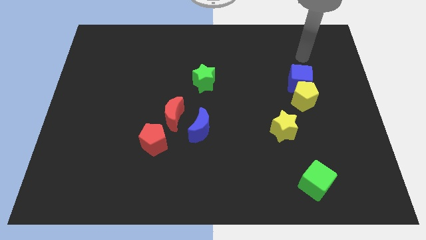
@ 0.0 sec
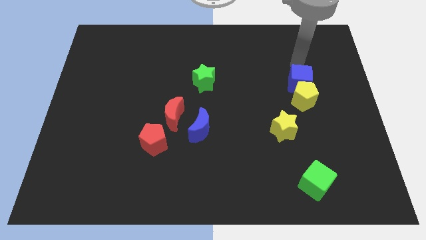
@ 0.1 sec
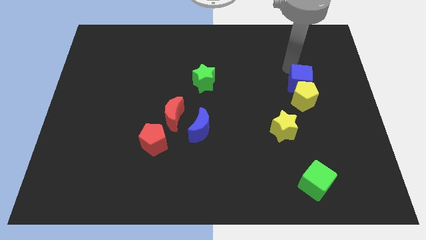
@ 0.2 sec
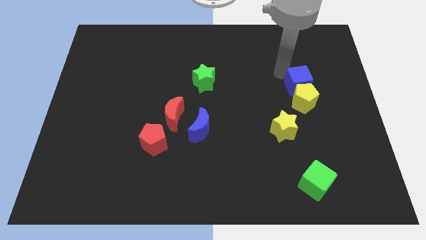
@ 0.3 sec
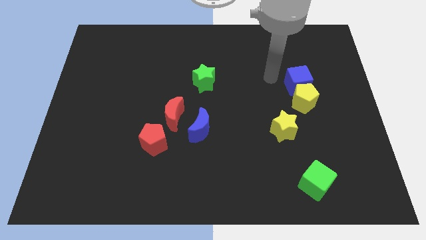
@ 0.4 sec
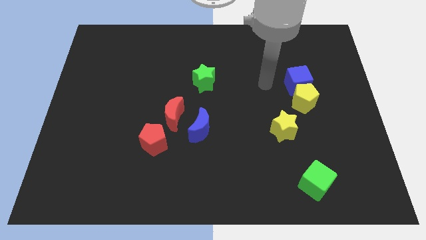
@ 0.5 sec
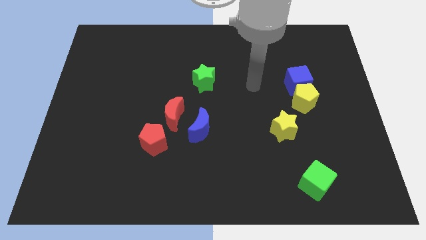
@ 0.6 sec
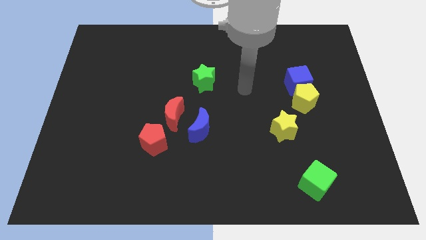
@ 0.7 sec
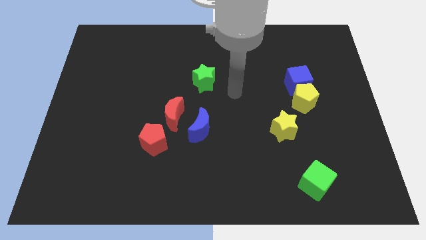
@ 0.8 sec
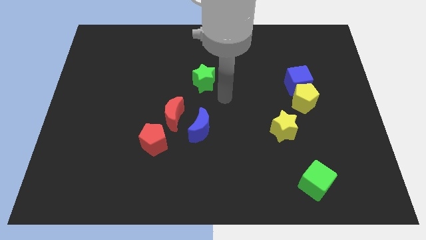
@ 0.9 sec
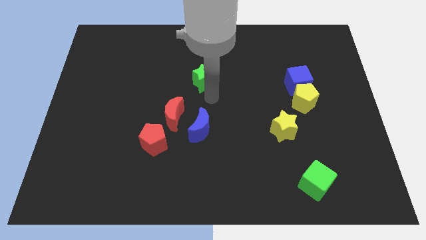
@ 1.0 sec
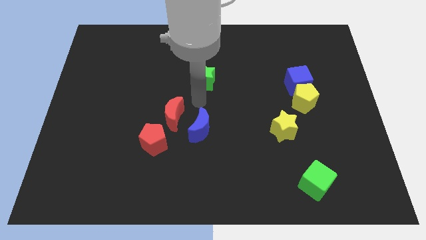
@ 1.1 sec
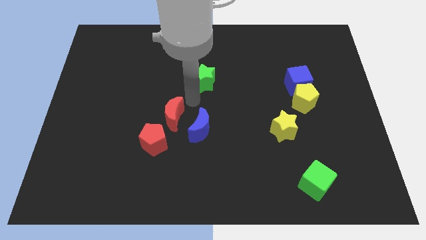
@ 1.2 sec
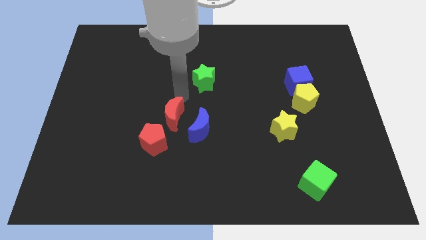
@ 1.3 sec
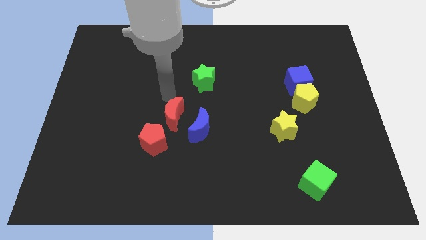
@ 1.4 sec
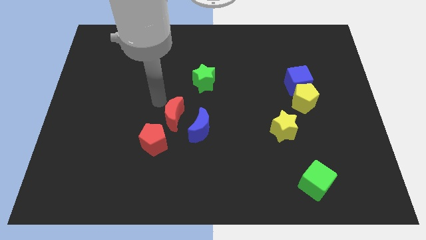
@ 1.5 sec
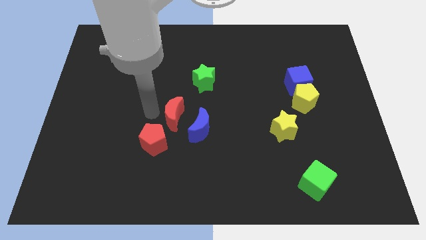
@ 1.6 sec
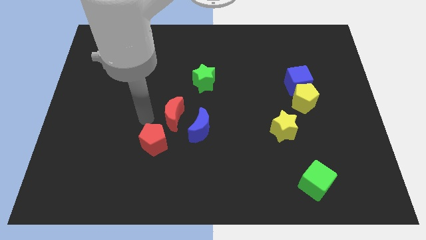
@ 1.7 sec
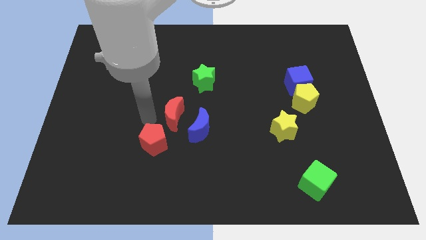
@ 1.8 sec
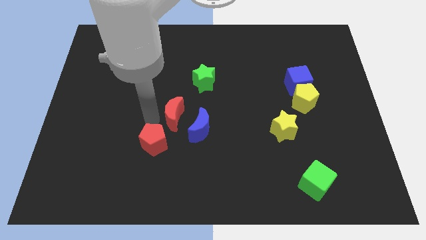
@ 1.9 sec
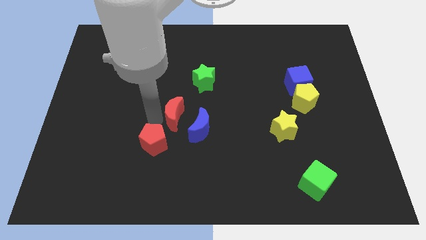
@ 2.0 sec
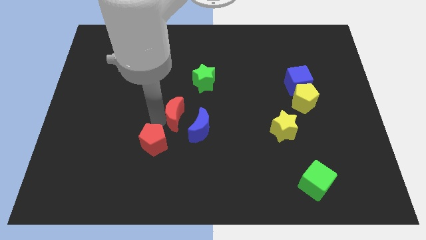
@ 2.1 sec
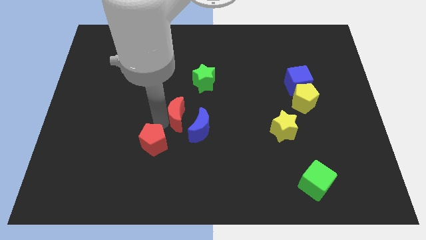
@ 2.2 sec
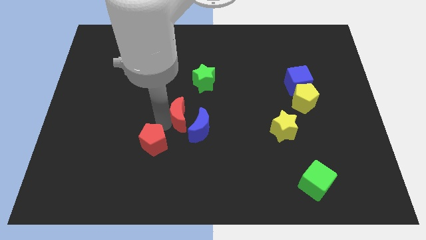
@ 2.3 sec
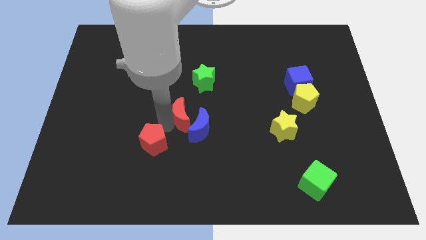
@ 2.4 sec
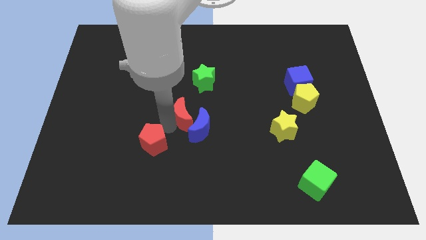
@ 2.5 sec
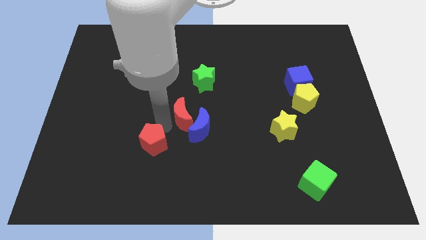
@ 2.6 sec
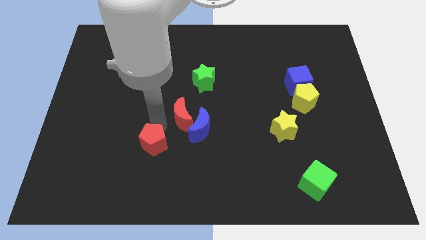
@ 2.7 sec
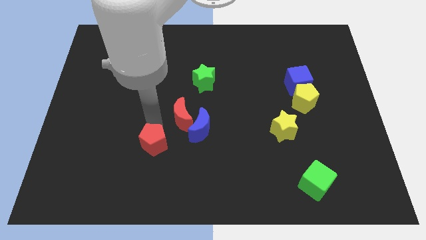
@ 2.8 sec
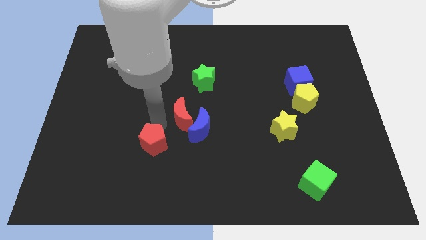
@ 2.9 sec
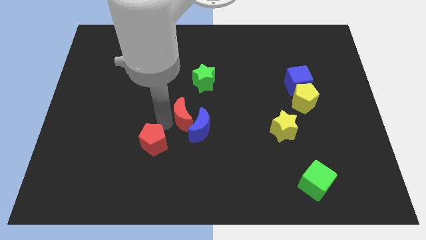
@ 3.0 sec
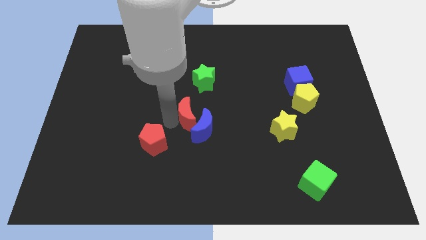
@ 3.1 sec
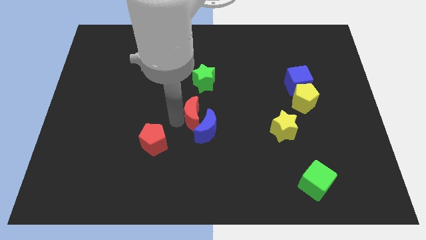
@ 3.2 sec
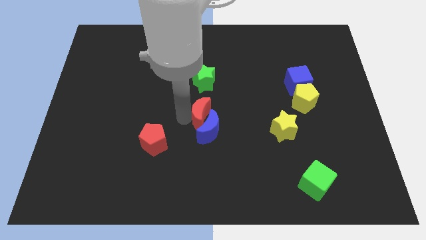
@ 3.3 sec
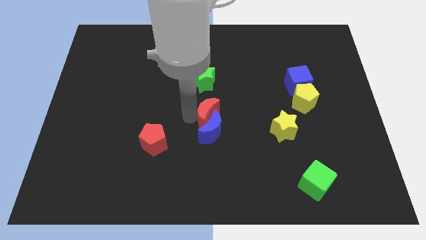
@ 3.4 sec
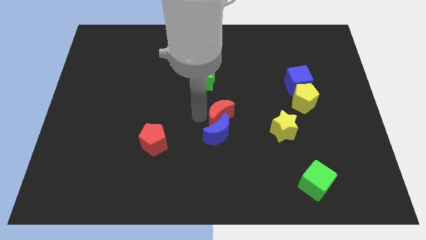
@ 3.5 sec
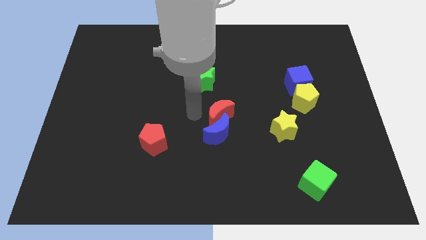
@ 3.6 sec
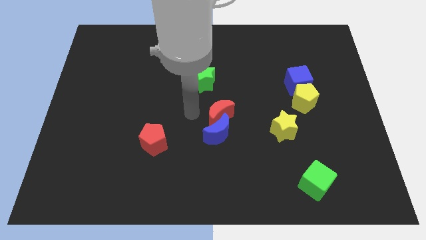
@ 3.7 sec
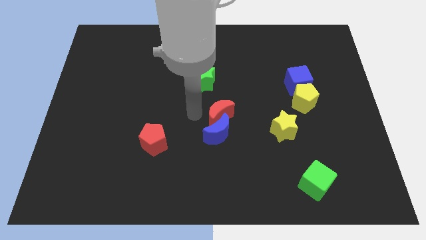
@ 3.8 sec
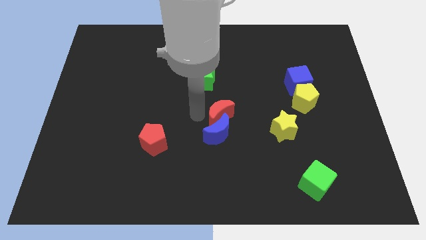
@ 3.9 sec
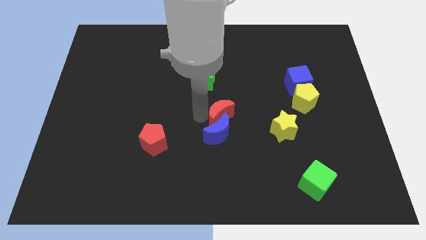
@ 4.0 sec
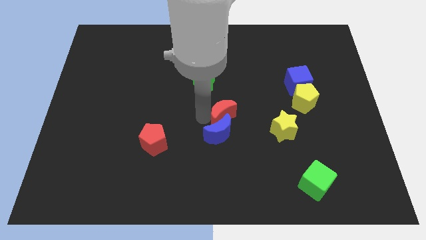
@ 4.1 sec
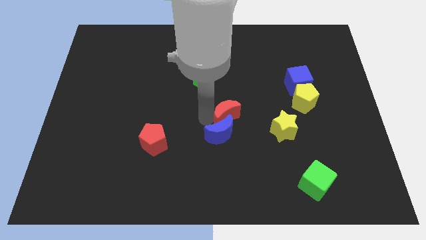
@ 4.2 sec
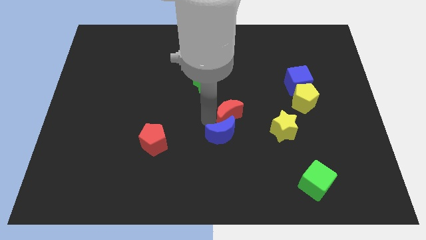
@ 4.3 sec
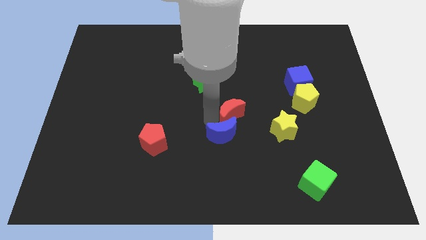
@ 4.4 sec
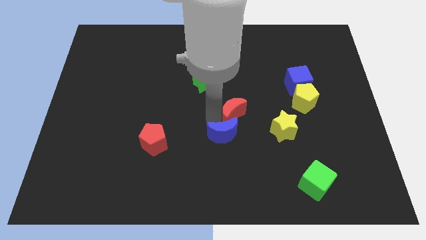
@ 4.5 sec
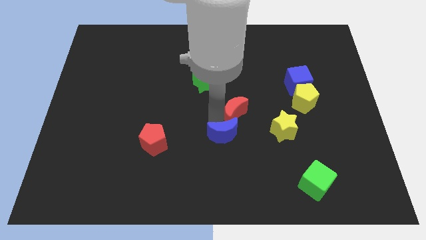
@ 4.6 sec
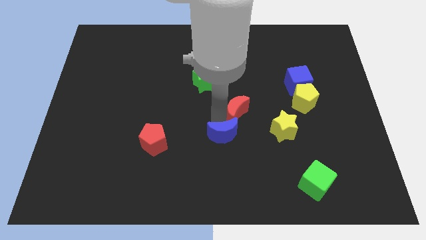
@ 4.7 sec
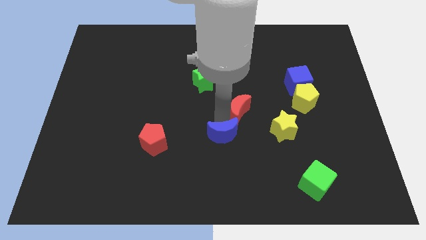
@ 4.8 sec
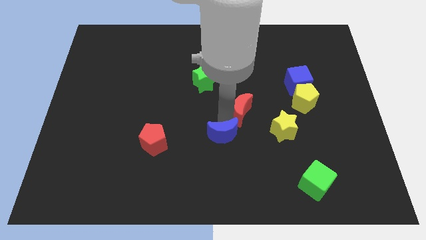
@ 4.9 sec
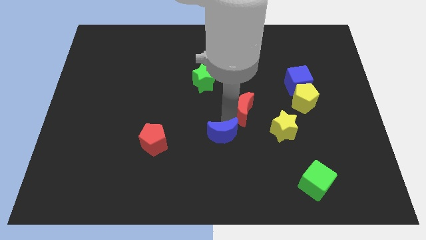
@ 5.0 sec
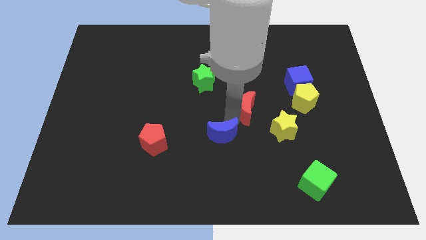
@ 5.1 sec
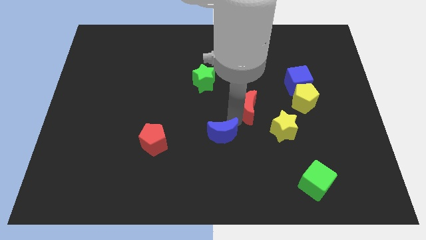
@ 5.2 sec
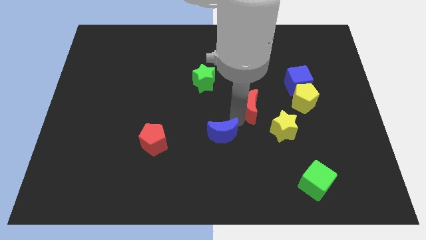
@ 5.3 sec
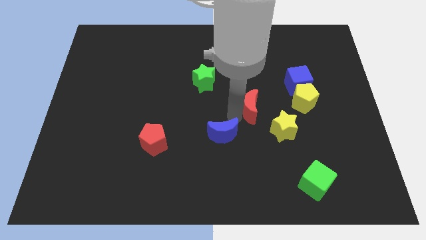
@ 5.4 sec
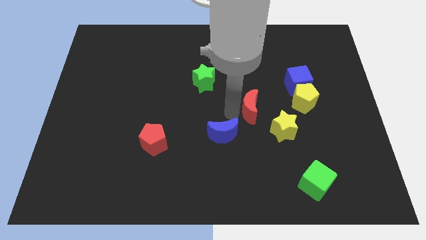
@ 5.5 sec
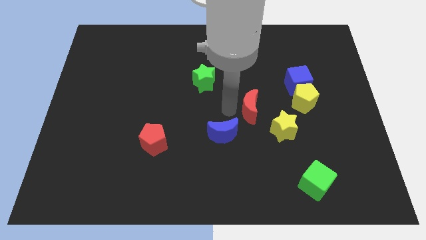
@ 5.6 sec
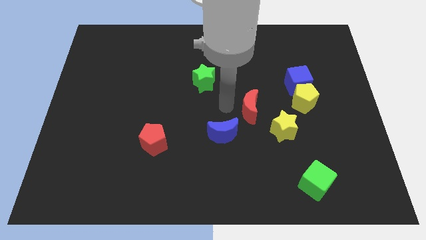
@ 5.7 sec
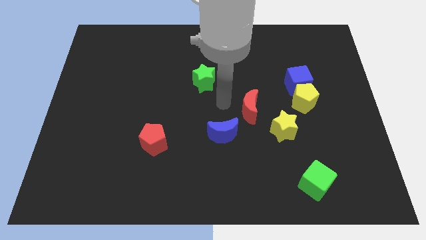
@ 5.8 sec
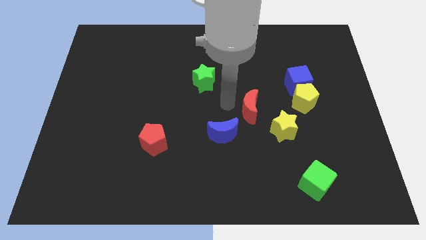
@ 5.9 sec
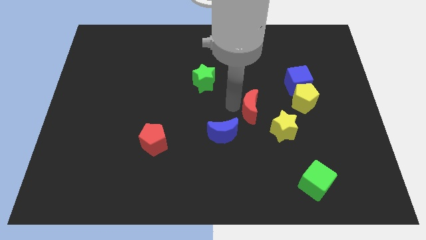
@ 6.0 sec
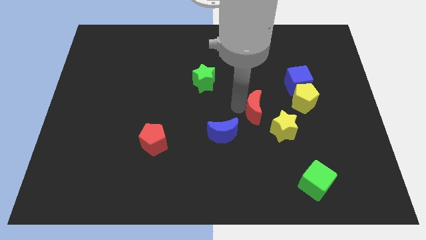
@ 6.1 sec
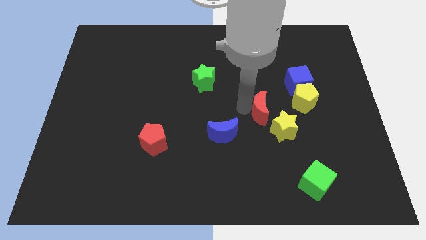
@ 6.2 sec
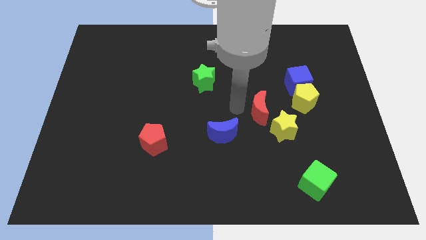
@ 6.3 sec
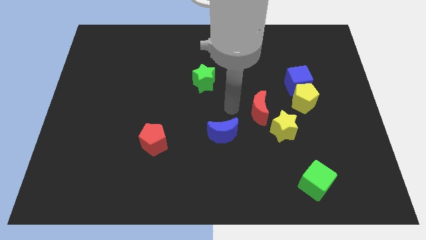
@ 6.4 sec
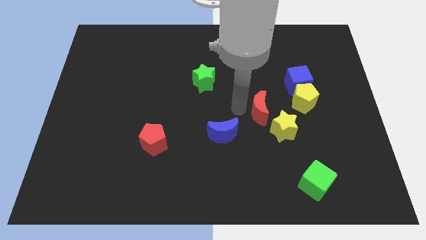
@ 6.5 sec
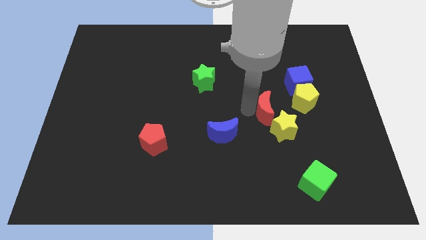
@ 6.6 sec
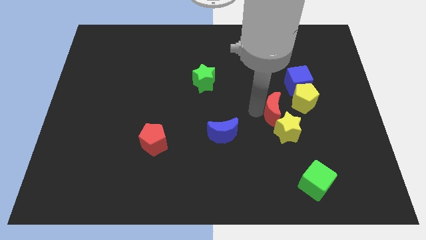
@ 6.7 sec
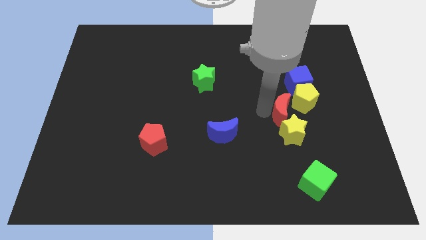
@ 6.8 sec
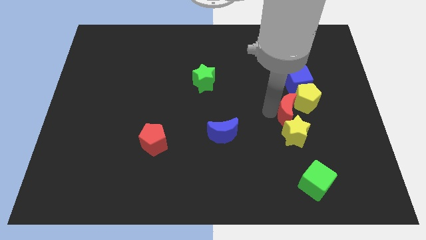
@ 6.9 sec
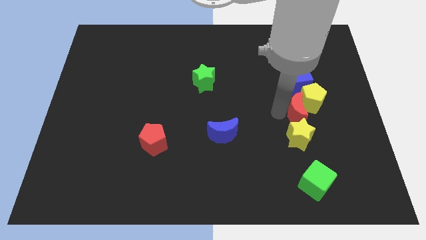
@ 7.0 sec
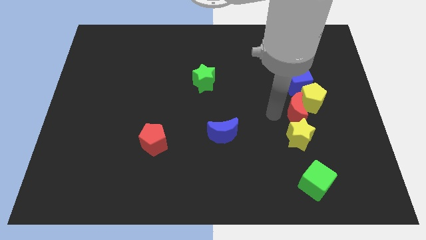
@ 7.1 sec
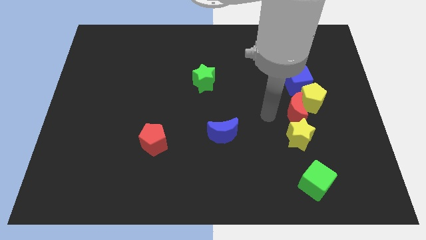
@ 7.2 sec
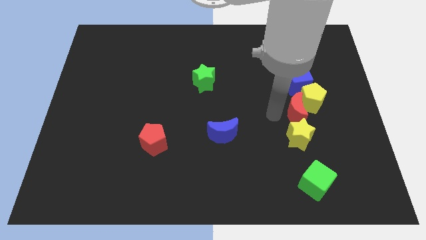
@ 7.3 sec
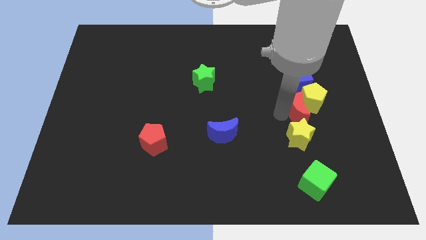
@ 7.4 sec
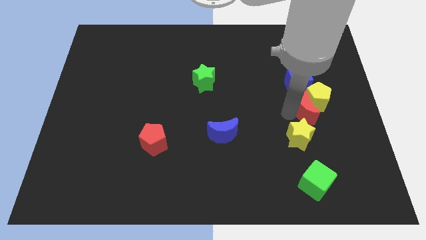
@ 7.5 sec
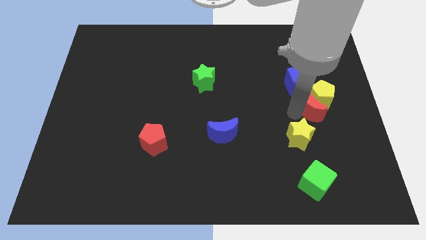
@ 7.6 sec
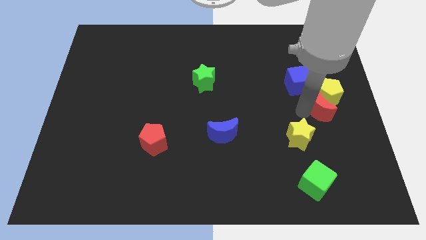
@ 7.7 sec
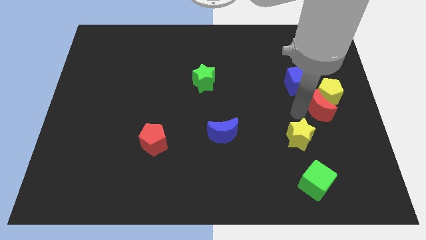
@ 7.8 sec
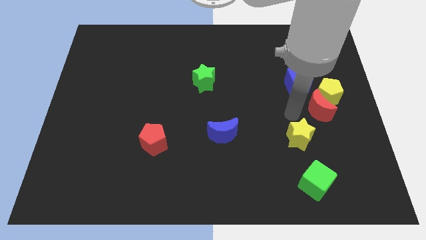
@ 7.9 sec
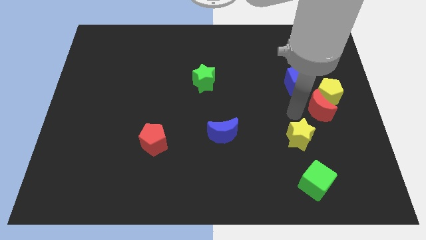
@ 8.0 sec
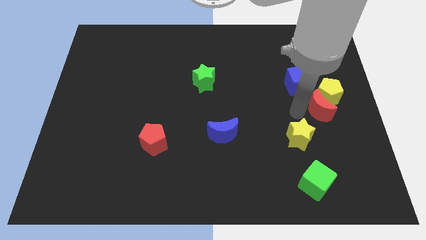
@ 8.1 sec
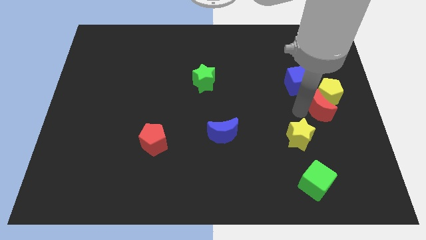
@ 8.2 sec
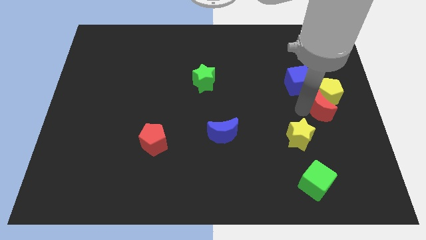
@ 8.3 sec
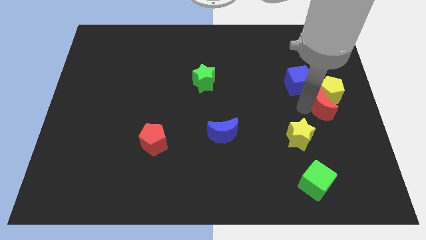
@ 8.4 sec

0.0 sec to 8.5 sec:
slide the red moon to the center right
